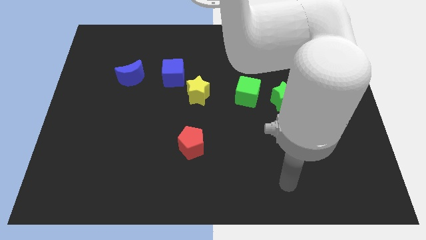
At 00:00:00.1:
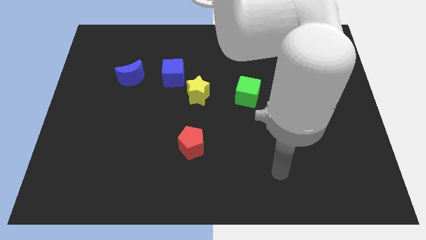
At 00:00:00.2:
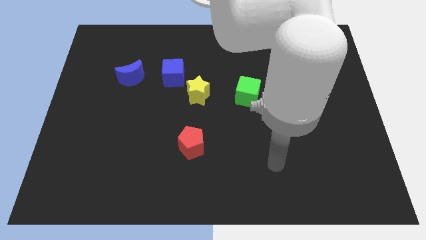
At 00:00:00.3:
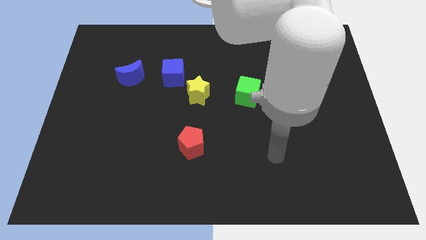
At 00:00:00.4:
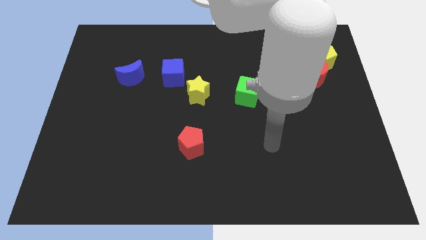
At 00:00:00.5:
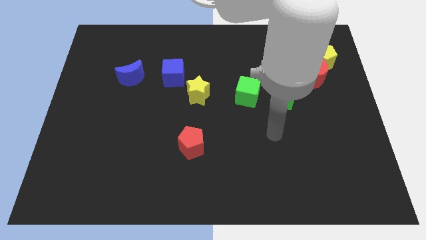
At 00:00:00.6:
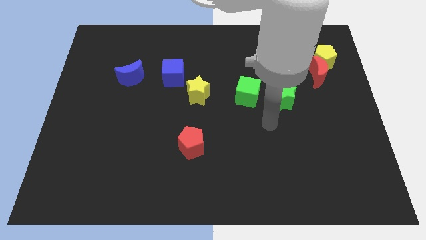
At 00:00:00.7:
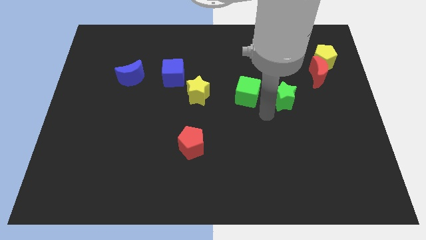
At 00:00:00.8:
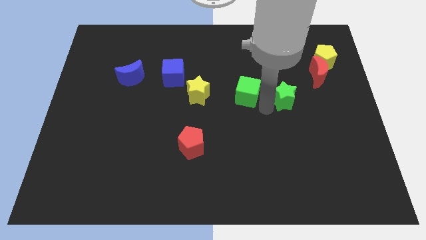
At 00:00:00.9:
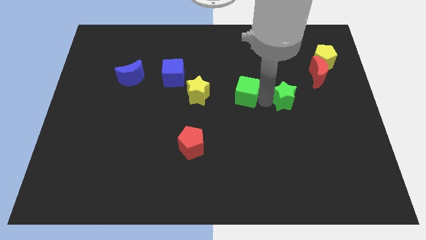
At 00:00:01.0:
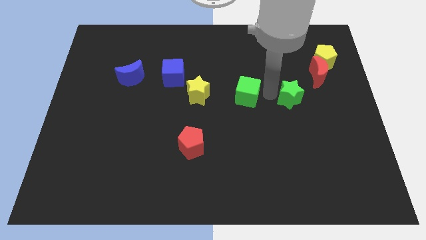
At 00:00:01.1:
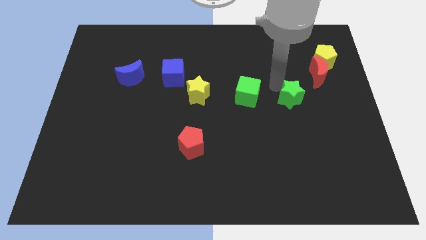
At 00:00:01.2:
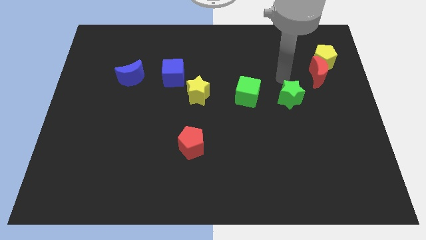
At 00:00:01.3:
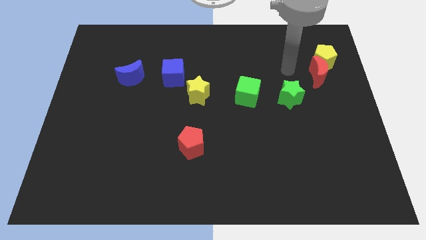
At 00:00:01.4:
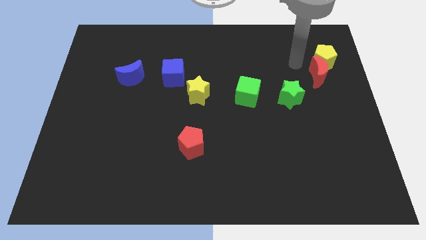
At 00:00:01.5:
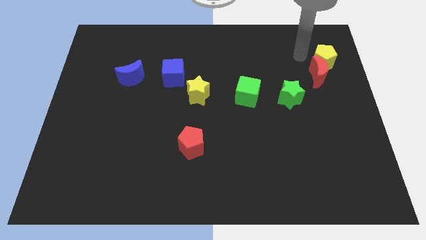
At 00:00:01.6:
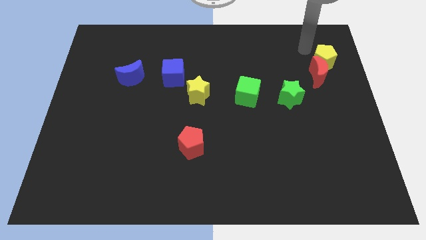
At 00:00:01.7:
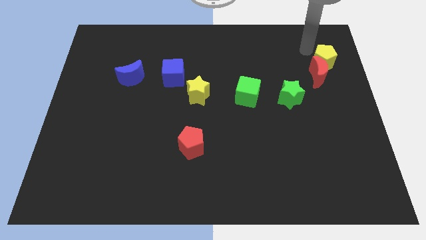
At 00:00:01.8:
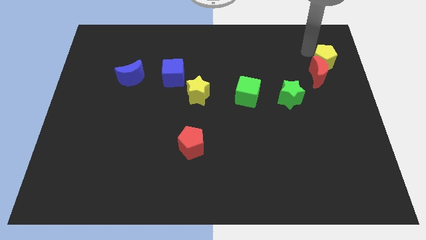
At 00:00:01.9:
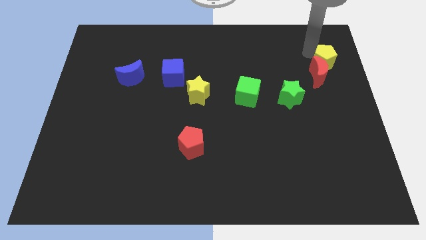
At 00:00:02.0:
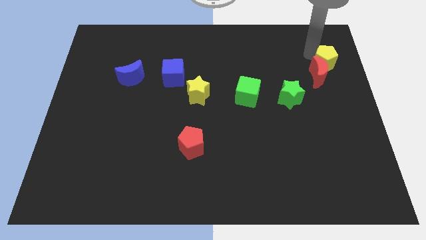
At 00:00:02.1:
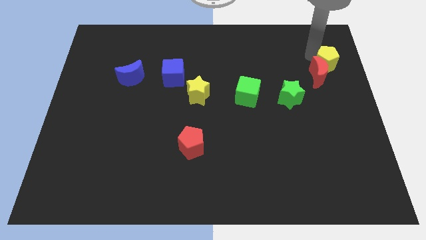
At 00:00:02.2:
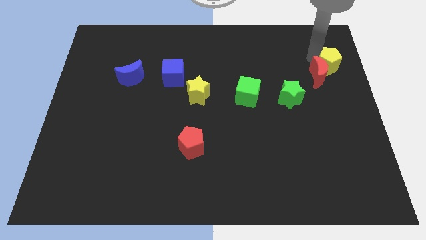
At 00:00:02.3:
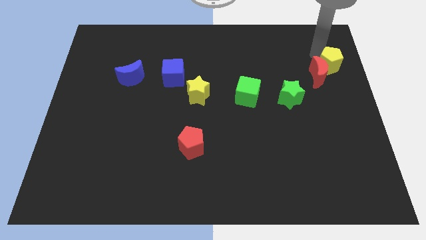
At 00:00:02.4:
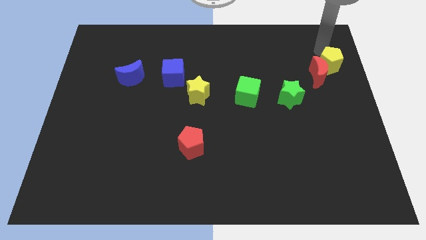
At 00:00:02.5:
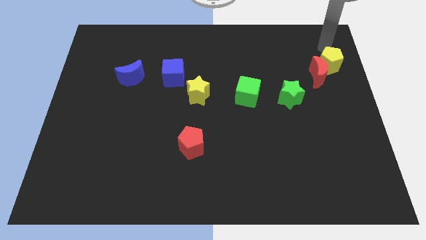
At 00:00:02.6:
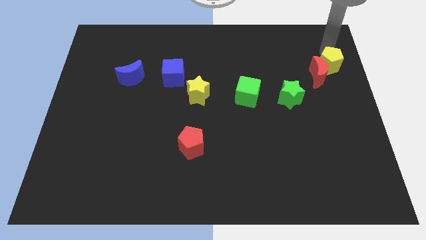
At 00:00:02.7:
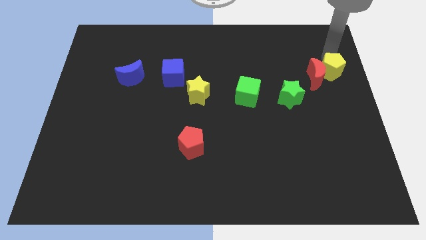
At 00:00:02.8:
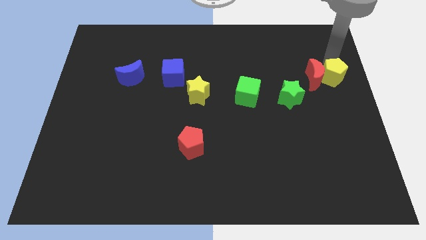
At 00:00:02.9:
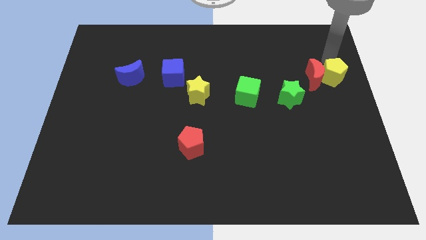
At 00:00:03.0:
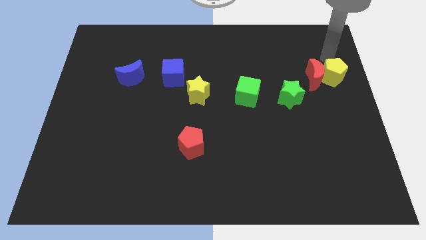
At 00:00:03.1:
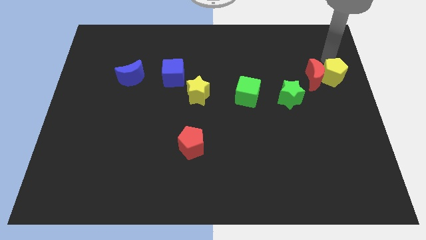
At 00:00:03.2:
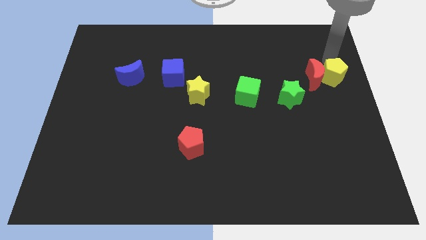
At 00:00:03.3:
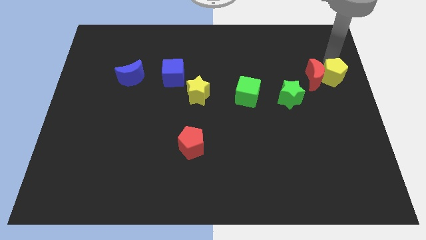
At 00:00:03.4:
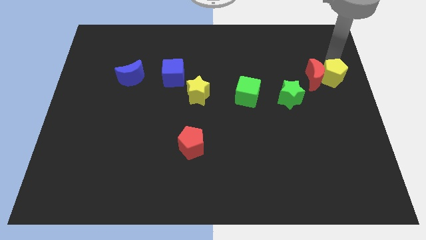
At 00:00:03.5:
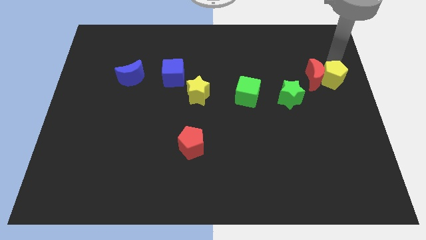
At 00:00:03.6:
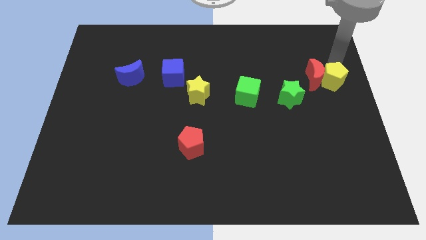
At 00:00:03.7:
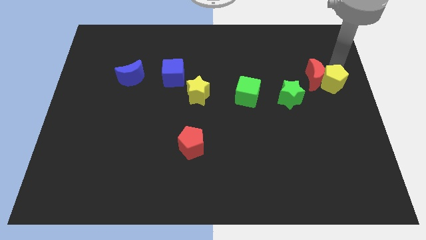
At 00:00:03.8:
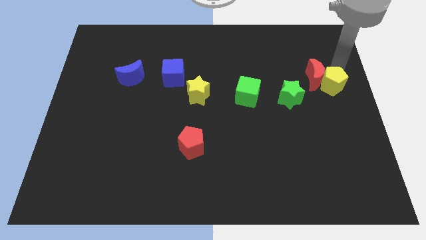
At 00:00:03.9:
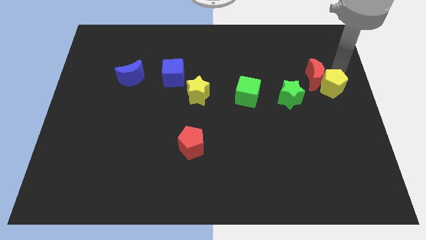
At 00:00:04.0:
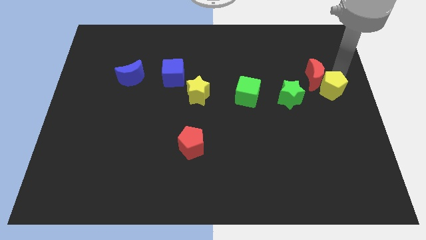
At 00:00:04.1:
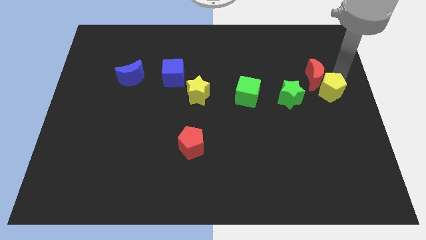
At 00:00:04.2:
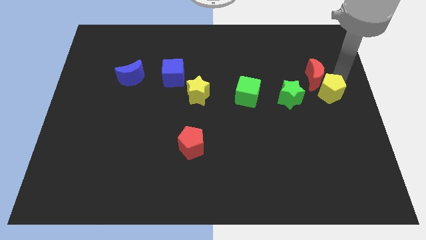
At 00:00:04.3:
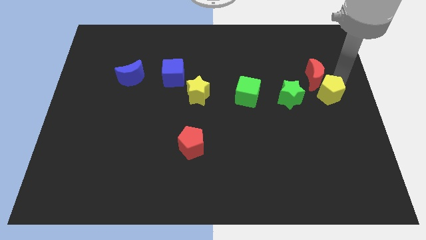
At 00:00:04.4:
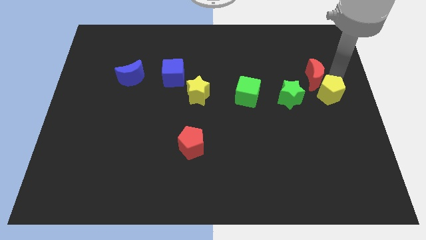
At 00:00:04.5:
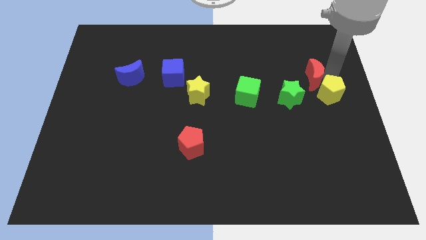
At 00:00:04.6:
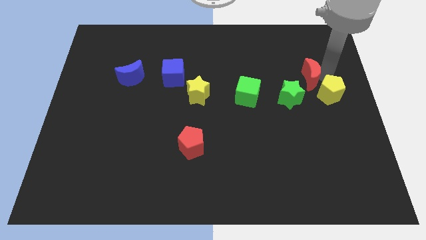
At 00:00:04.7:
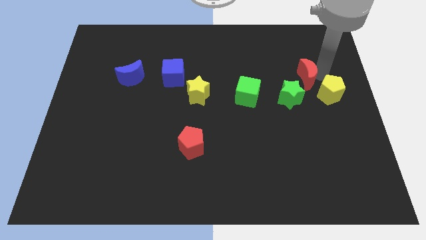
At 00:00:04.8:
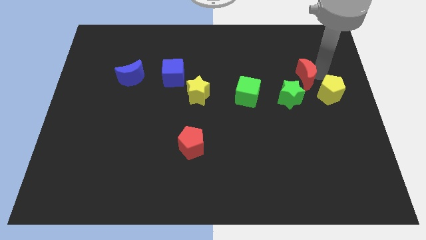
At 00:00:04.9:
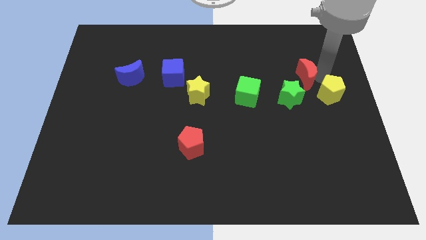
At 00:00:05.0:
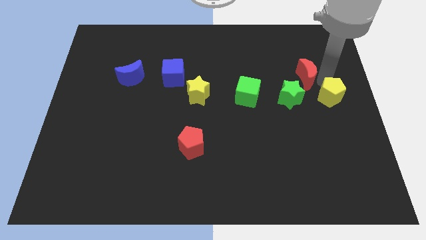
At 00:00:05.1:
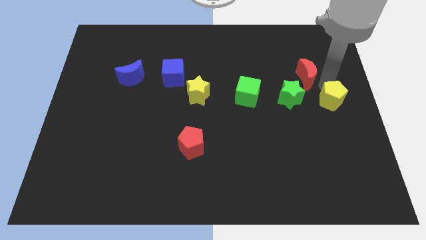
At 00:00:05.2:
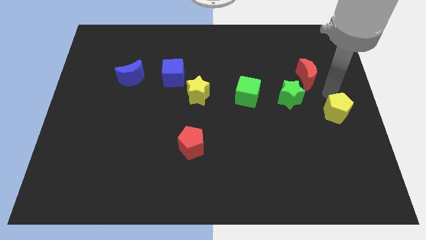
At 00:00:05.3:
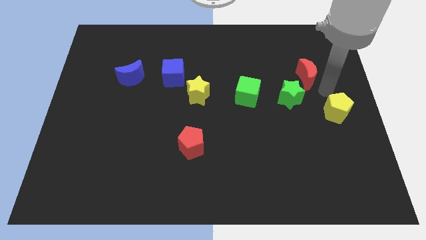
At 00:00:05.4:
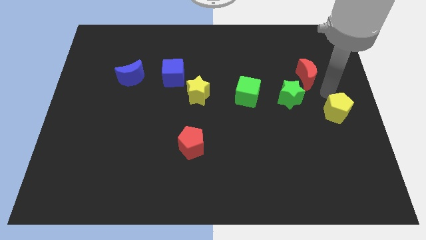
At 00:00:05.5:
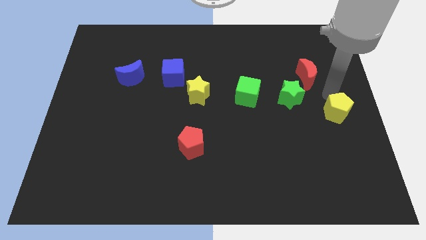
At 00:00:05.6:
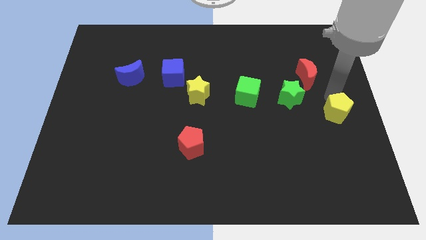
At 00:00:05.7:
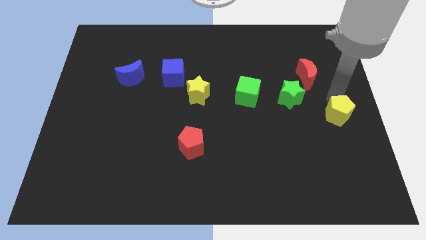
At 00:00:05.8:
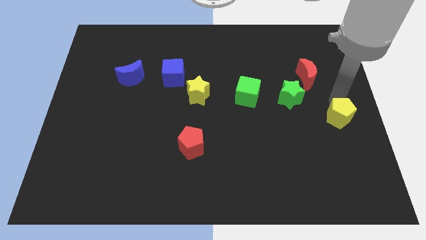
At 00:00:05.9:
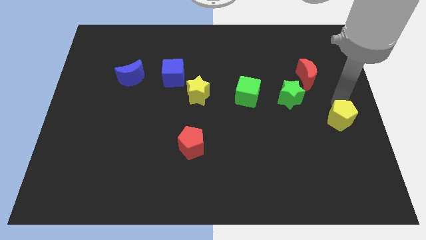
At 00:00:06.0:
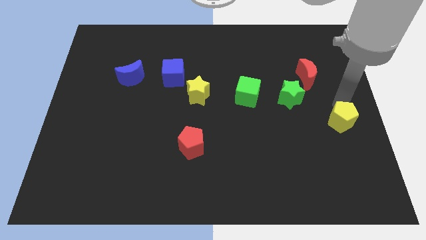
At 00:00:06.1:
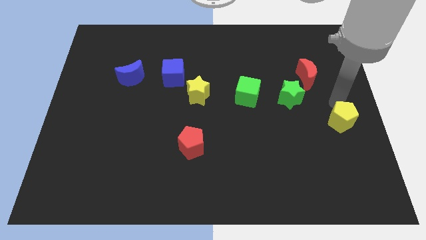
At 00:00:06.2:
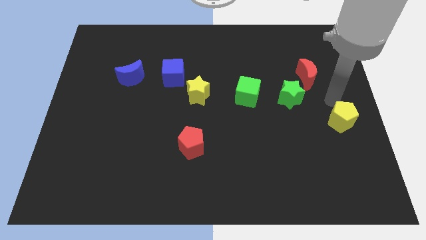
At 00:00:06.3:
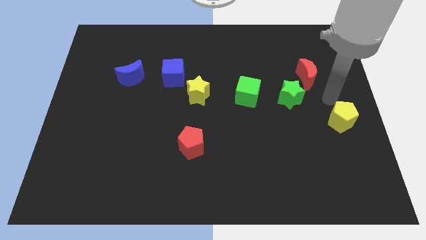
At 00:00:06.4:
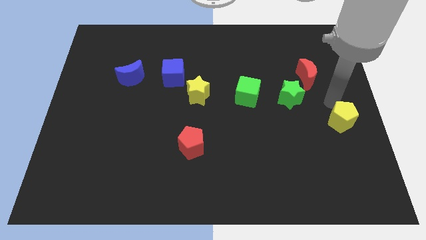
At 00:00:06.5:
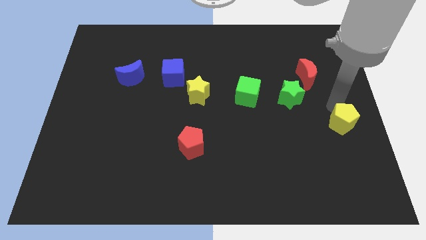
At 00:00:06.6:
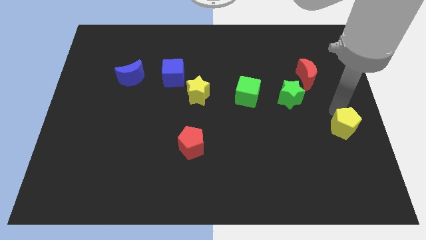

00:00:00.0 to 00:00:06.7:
push the yellow pentagon downwards

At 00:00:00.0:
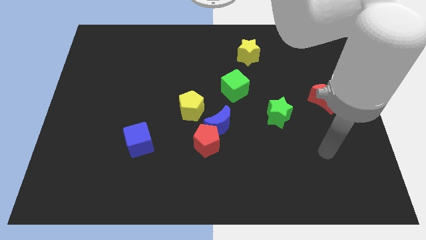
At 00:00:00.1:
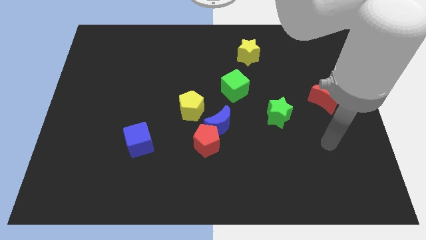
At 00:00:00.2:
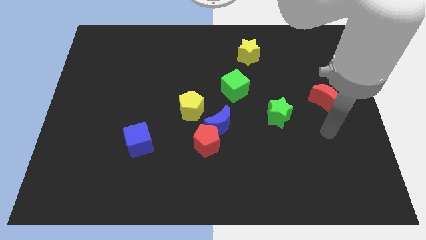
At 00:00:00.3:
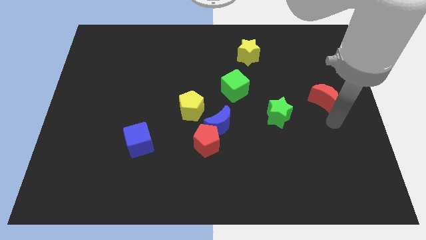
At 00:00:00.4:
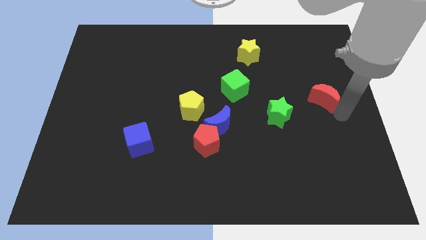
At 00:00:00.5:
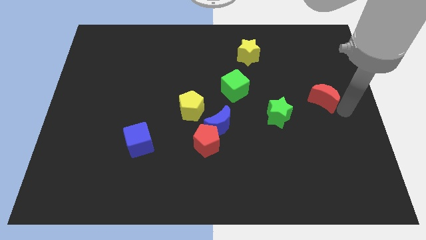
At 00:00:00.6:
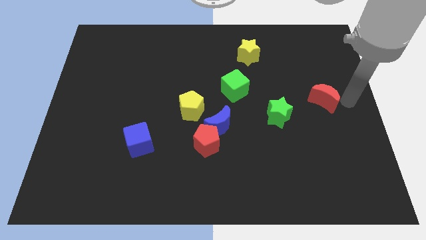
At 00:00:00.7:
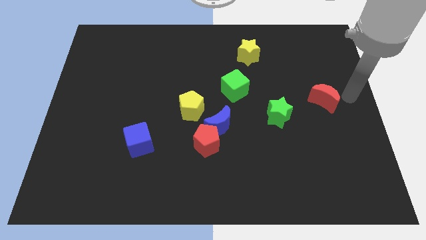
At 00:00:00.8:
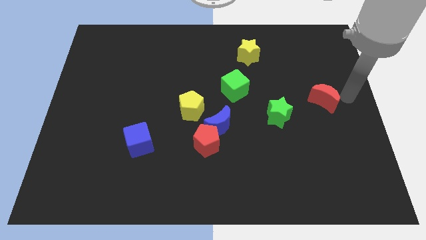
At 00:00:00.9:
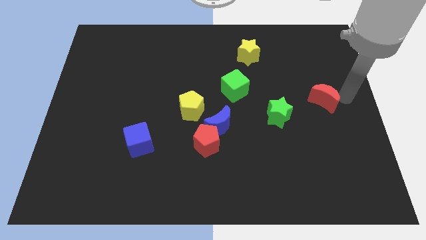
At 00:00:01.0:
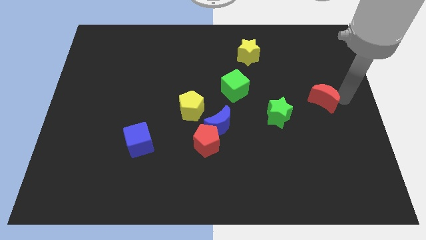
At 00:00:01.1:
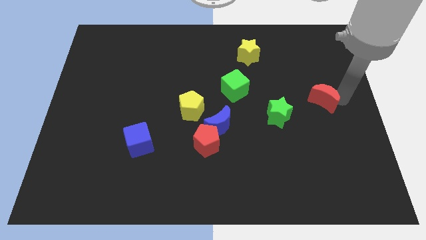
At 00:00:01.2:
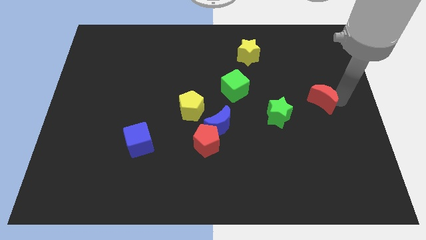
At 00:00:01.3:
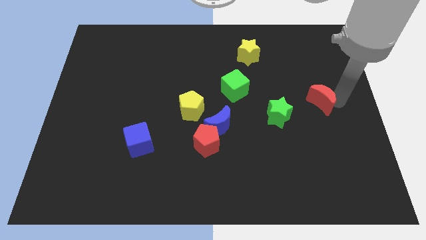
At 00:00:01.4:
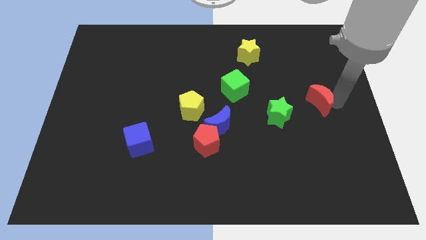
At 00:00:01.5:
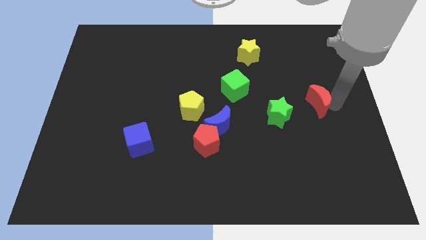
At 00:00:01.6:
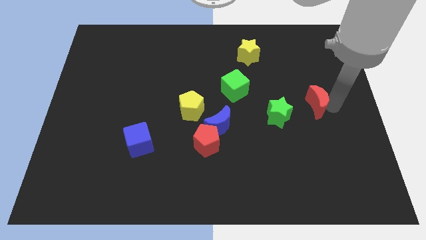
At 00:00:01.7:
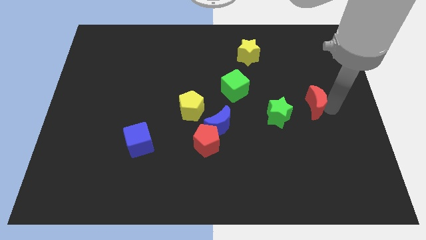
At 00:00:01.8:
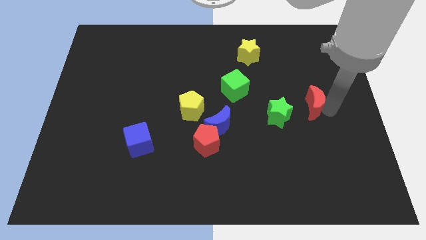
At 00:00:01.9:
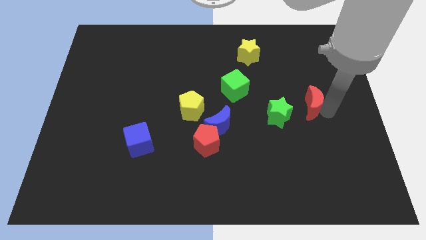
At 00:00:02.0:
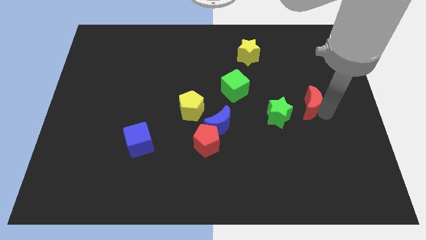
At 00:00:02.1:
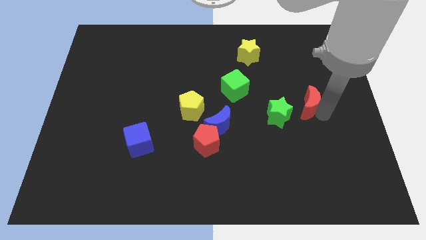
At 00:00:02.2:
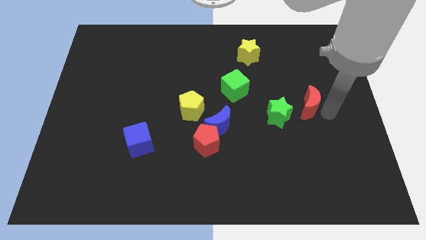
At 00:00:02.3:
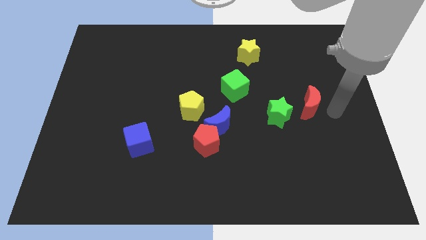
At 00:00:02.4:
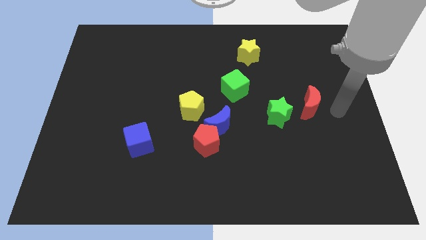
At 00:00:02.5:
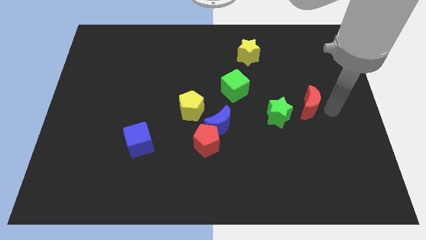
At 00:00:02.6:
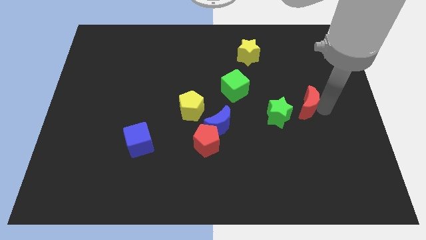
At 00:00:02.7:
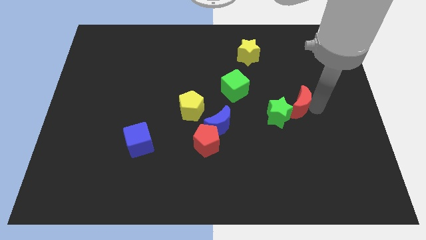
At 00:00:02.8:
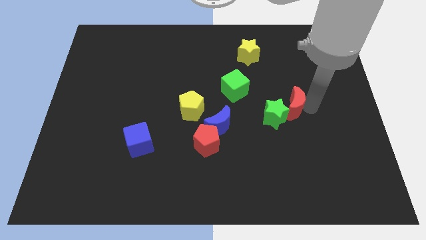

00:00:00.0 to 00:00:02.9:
move the red moon to the left a bit
